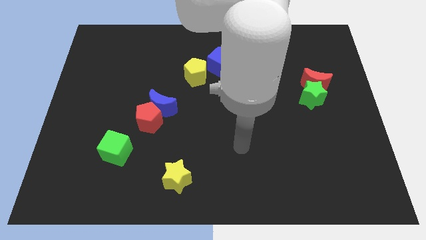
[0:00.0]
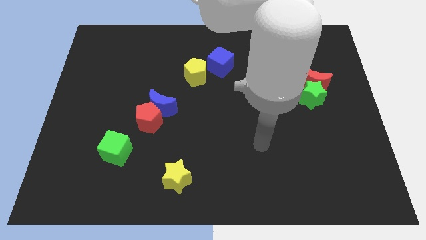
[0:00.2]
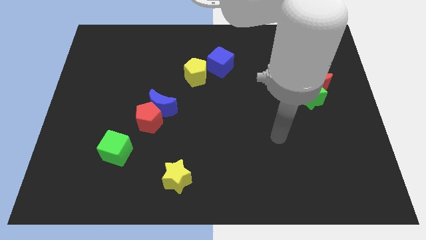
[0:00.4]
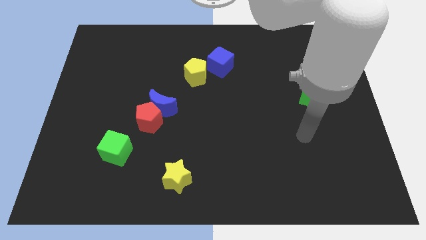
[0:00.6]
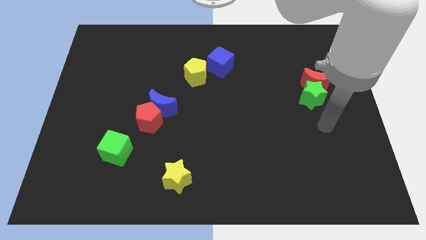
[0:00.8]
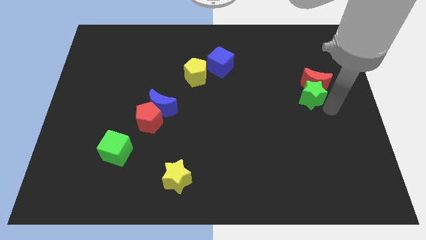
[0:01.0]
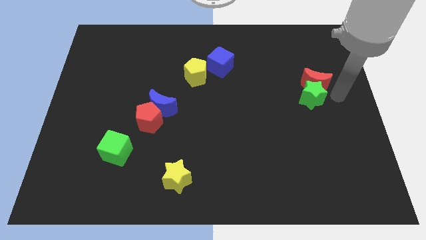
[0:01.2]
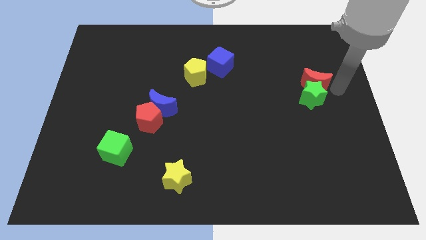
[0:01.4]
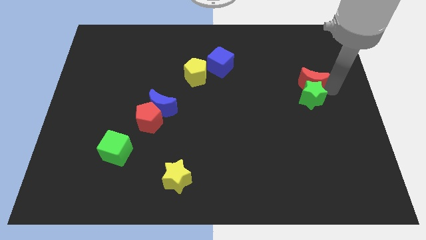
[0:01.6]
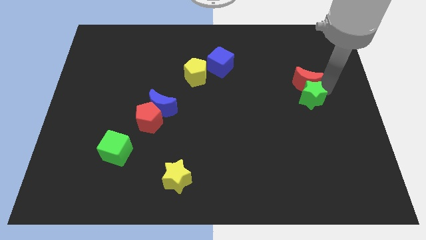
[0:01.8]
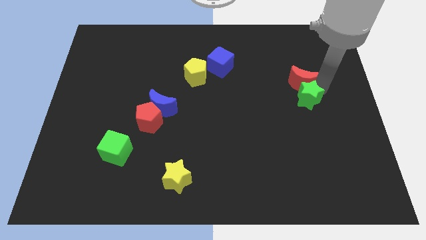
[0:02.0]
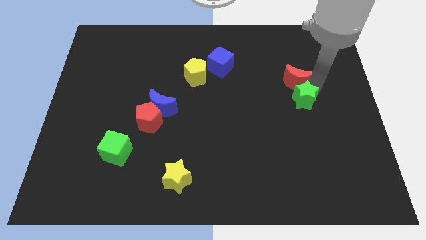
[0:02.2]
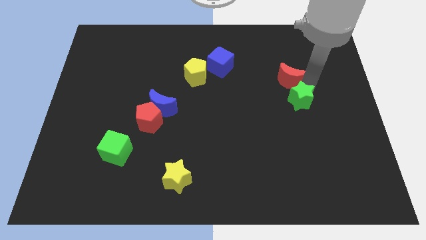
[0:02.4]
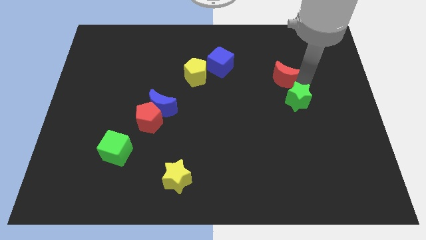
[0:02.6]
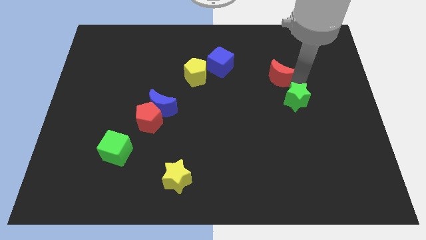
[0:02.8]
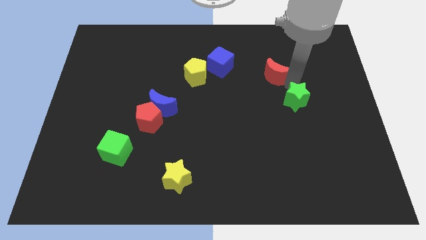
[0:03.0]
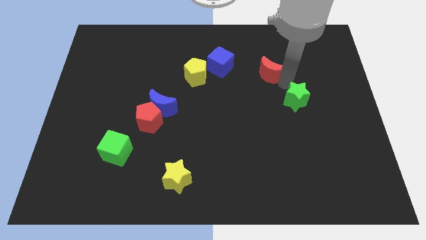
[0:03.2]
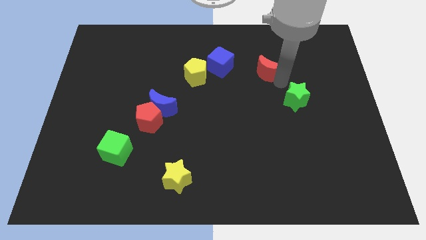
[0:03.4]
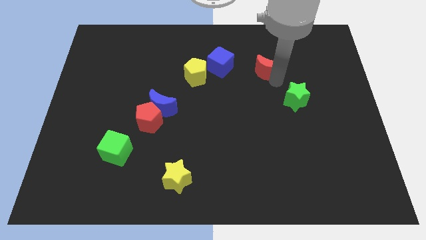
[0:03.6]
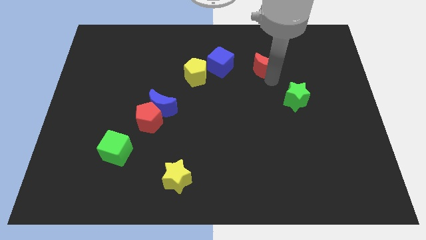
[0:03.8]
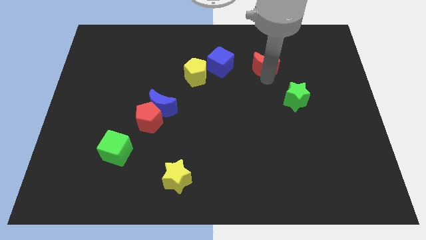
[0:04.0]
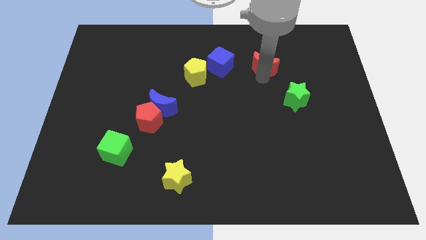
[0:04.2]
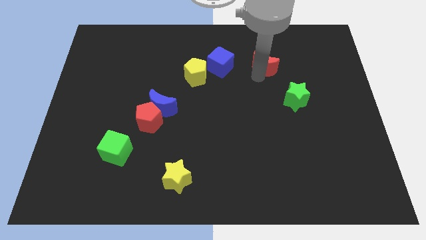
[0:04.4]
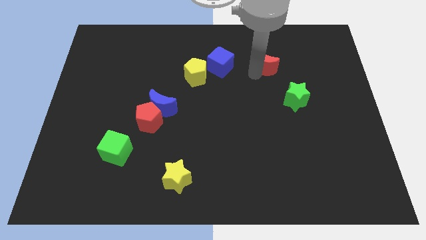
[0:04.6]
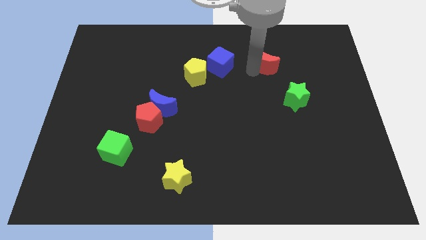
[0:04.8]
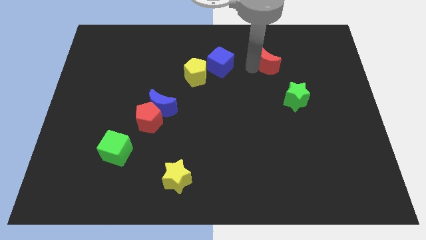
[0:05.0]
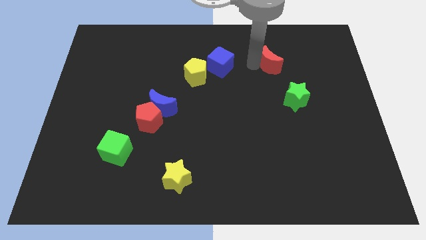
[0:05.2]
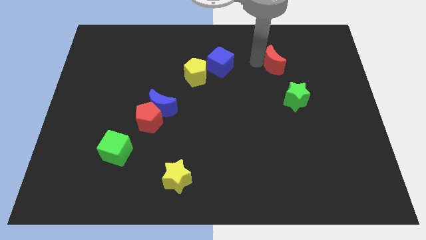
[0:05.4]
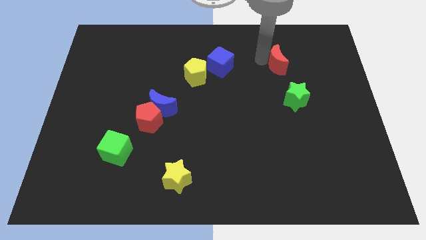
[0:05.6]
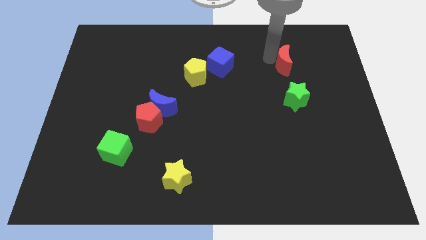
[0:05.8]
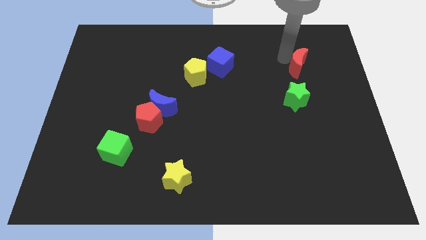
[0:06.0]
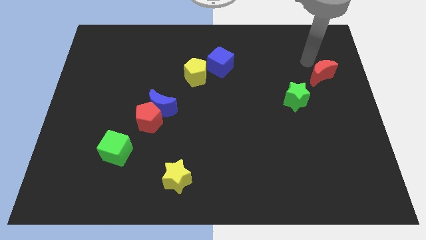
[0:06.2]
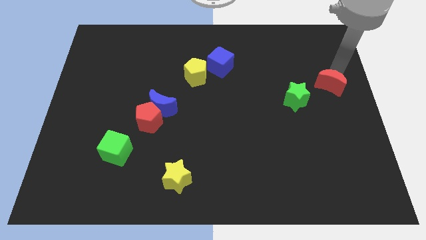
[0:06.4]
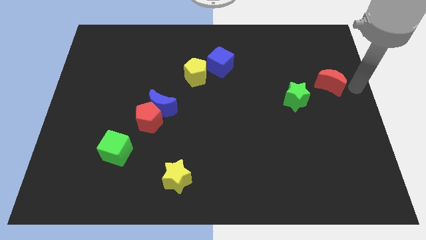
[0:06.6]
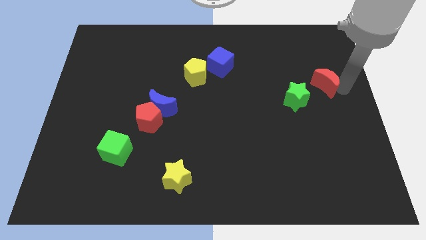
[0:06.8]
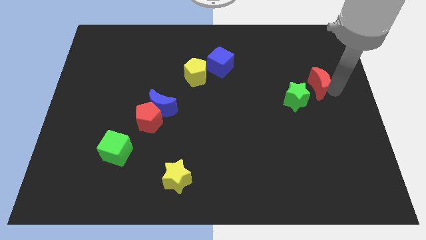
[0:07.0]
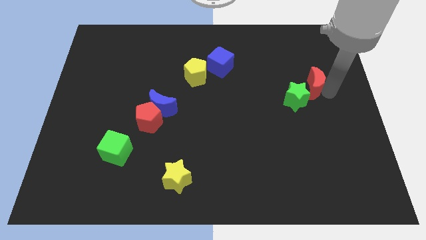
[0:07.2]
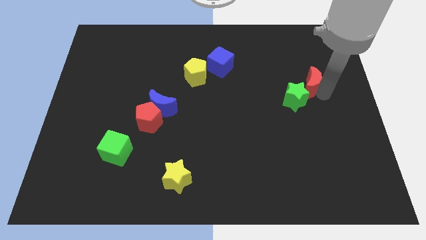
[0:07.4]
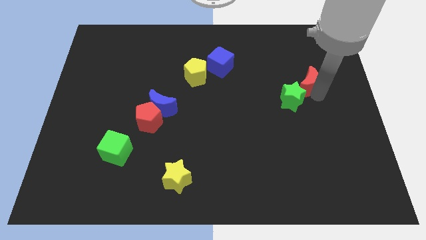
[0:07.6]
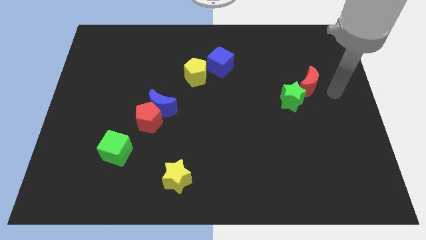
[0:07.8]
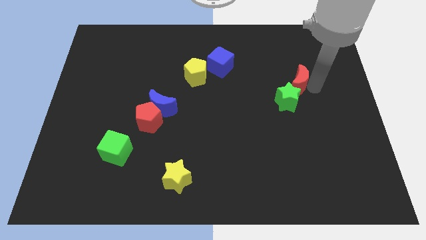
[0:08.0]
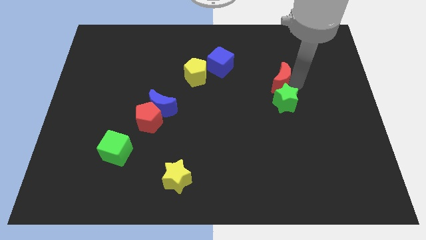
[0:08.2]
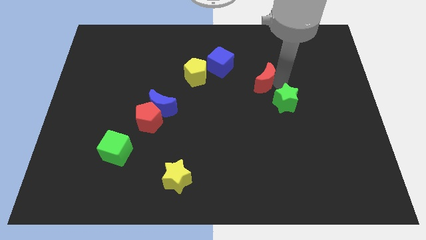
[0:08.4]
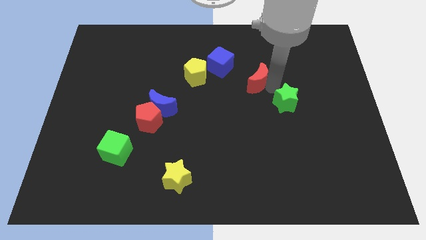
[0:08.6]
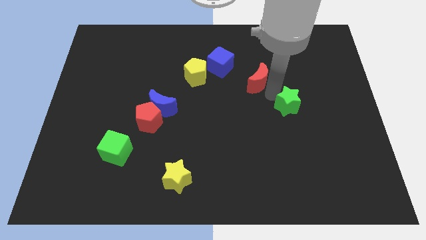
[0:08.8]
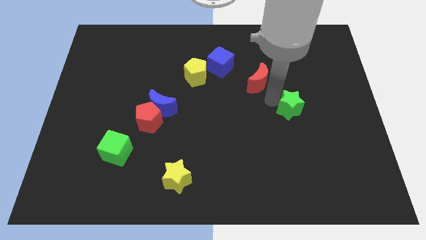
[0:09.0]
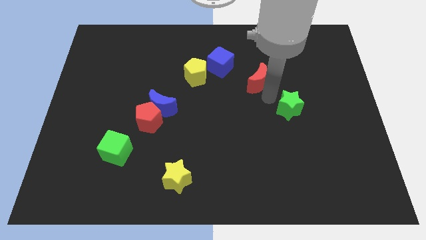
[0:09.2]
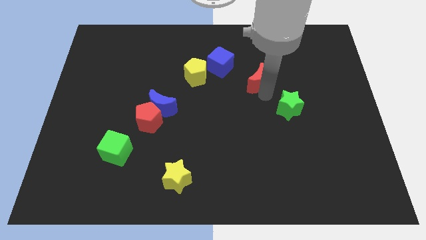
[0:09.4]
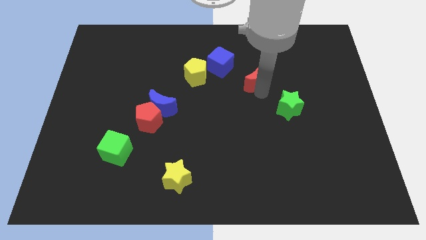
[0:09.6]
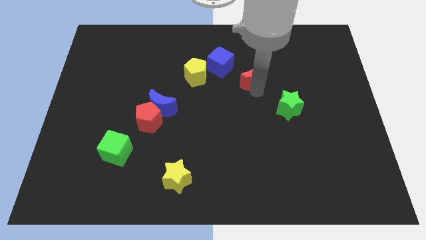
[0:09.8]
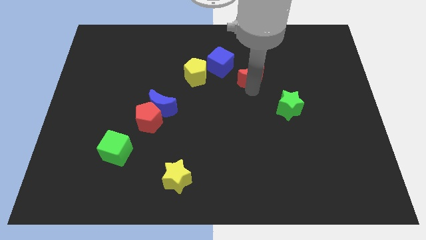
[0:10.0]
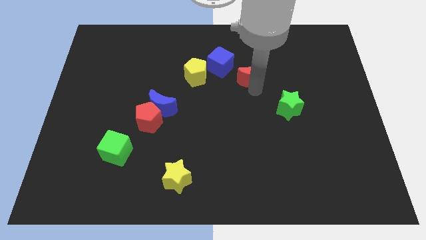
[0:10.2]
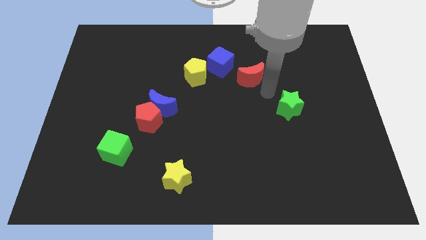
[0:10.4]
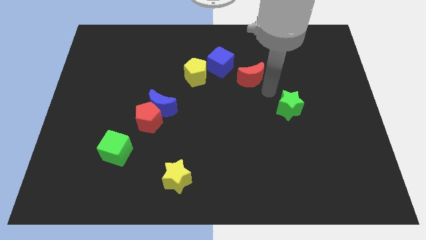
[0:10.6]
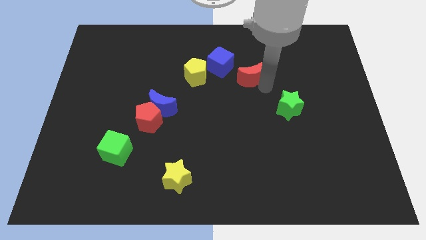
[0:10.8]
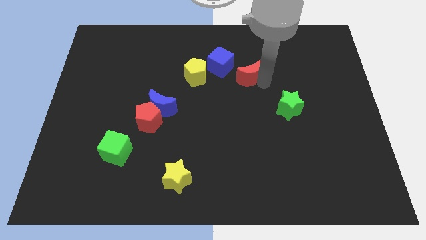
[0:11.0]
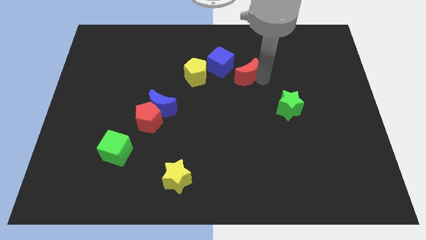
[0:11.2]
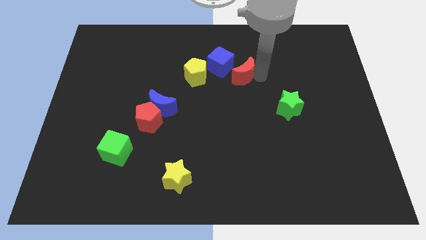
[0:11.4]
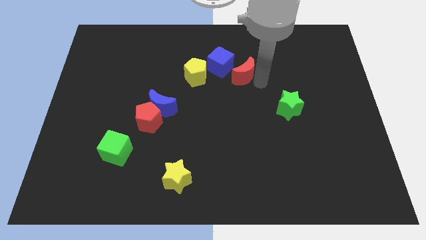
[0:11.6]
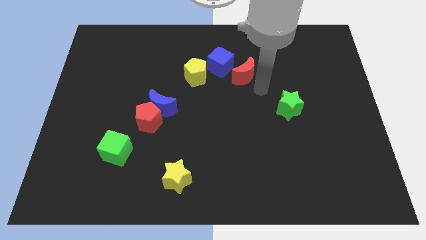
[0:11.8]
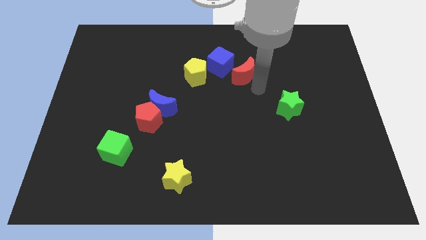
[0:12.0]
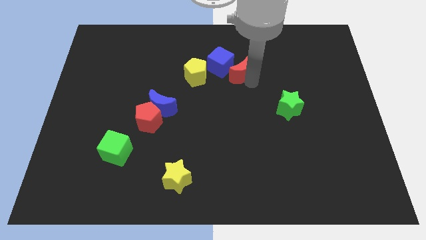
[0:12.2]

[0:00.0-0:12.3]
put the red moon next to the blue cube
